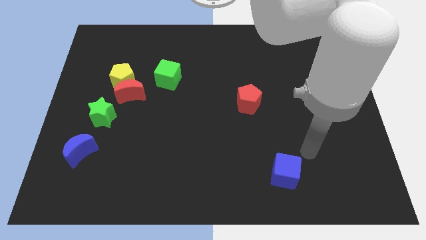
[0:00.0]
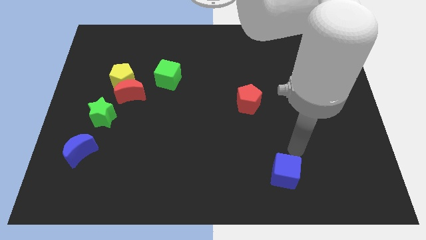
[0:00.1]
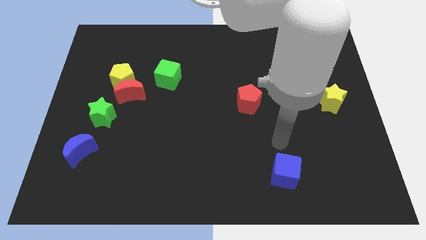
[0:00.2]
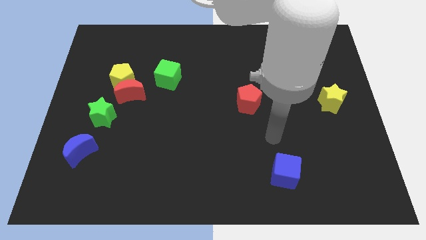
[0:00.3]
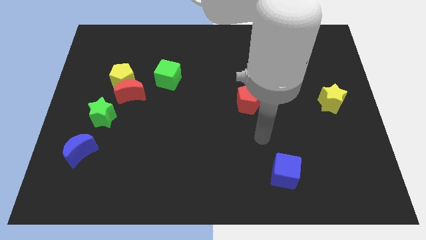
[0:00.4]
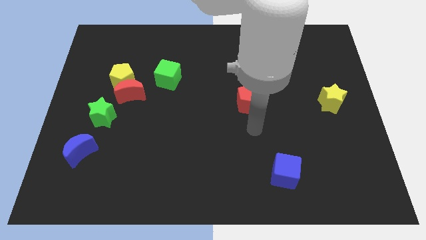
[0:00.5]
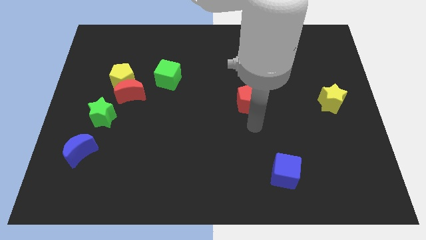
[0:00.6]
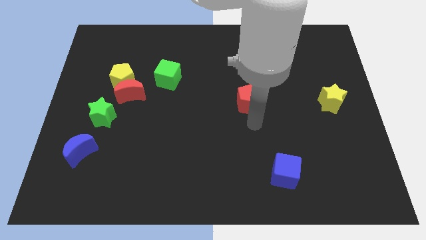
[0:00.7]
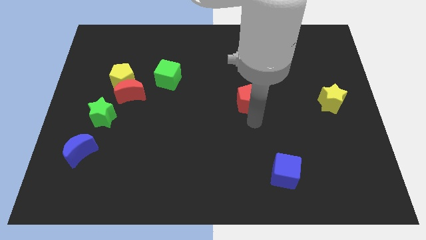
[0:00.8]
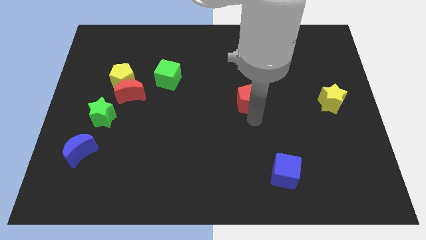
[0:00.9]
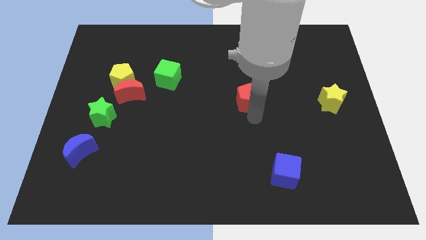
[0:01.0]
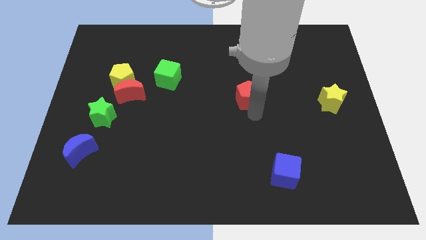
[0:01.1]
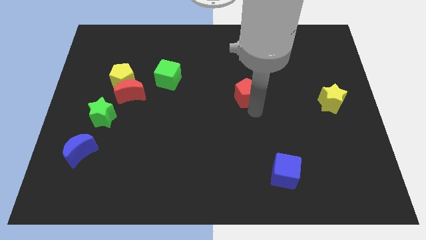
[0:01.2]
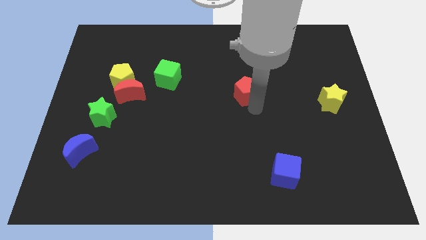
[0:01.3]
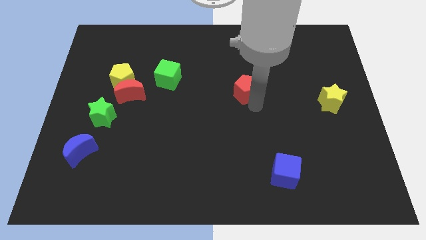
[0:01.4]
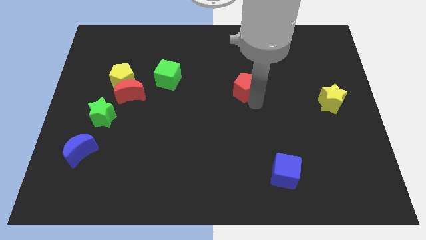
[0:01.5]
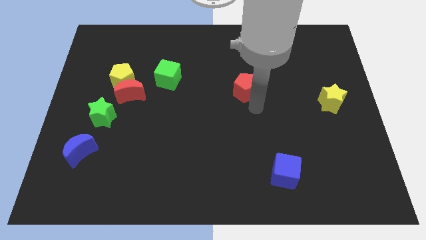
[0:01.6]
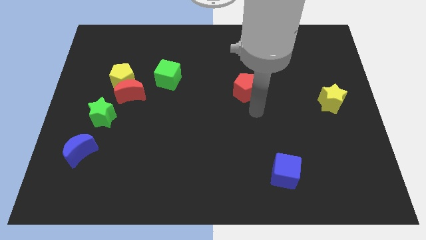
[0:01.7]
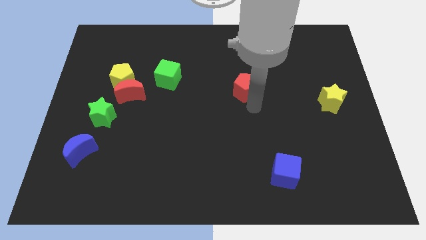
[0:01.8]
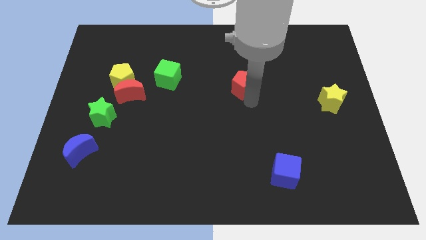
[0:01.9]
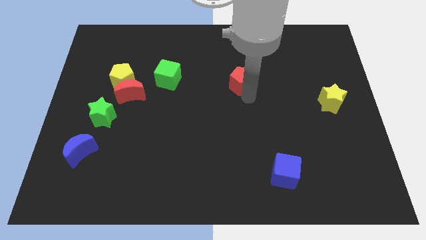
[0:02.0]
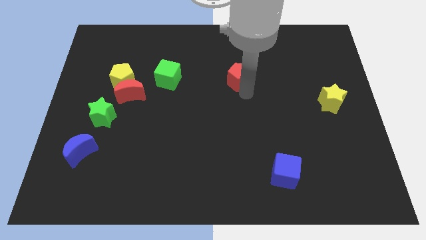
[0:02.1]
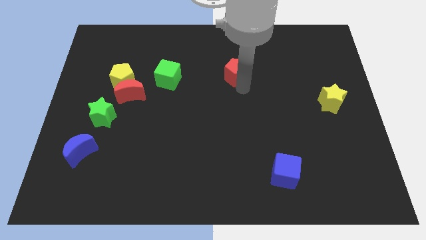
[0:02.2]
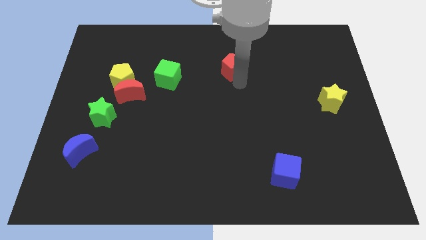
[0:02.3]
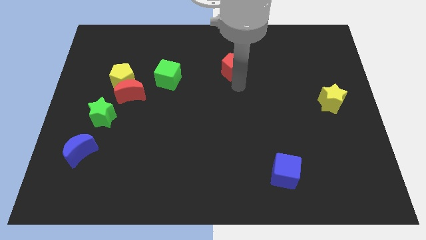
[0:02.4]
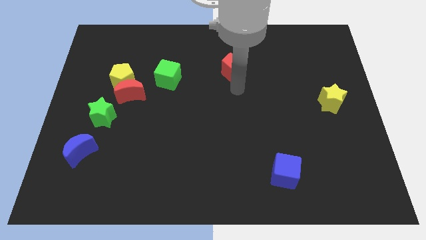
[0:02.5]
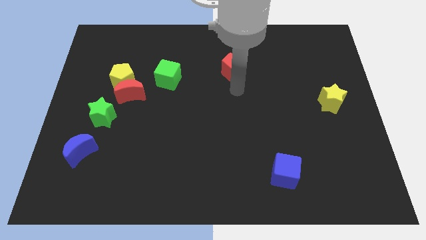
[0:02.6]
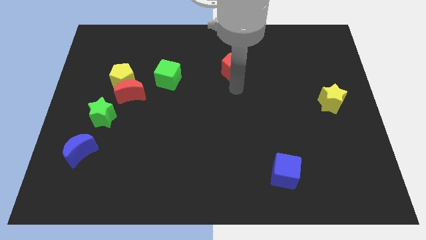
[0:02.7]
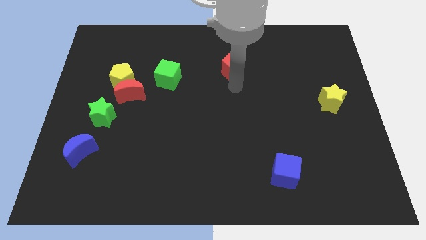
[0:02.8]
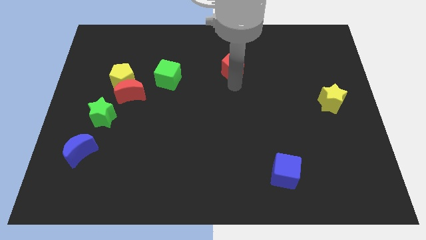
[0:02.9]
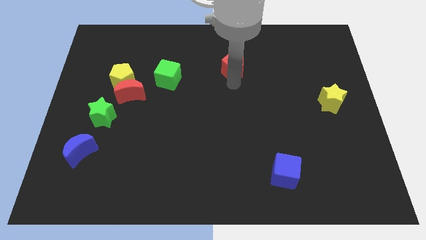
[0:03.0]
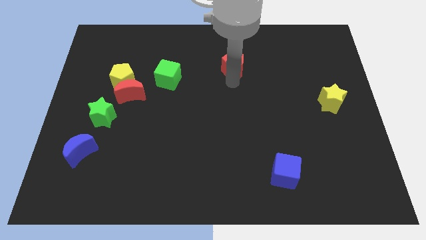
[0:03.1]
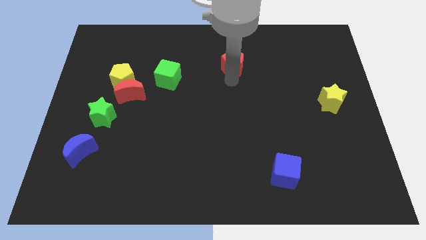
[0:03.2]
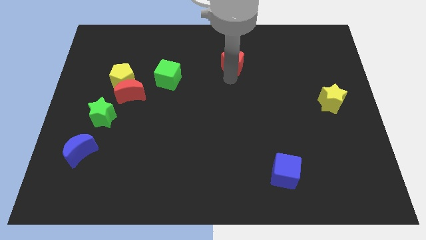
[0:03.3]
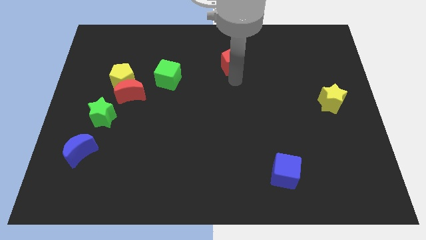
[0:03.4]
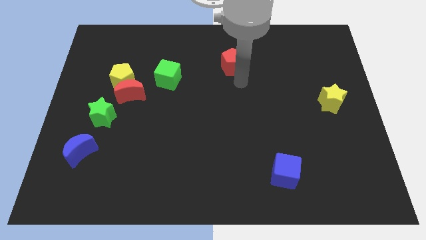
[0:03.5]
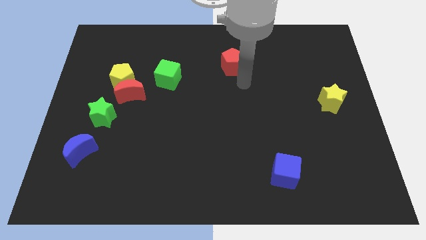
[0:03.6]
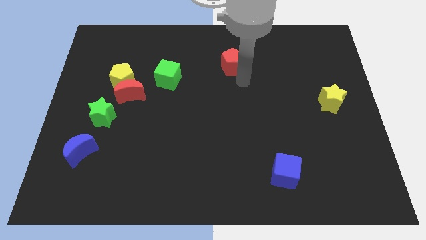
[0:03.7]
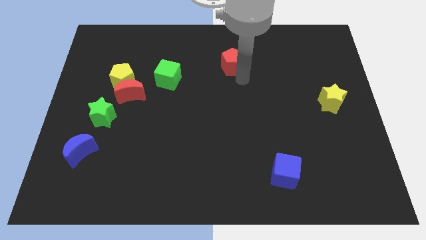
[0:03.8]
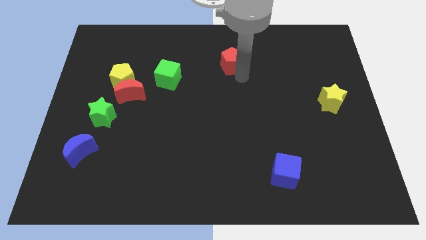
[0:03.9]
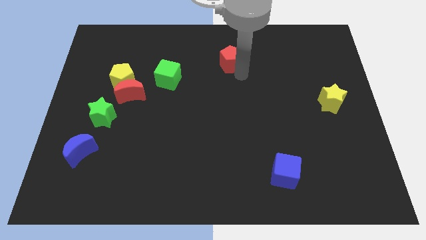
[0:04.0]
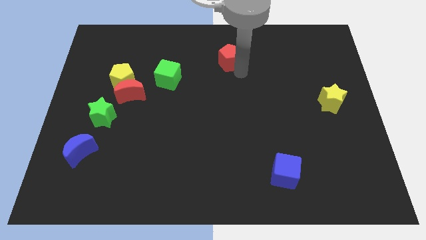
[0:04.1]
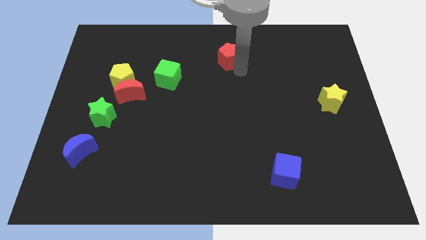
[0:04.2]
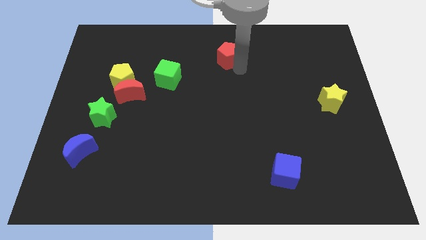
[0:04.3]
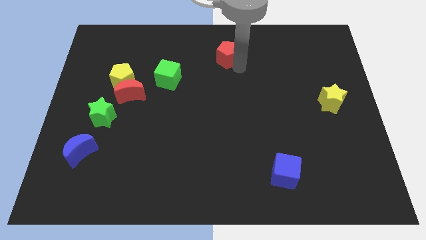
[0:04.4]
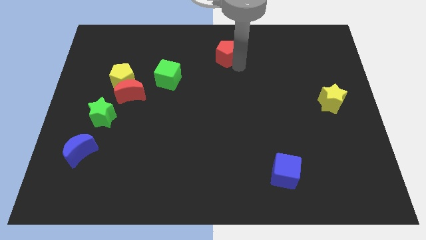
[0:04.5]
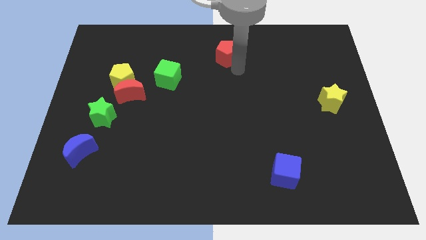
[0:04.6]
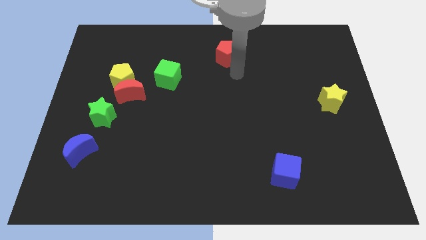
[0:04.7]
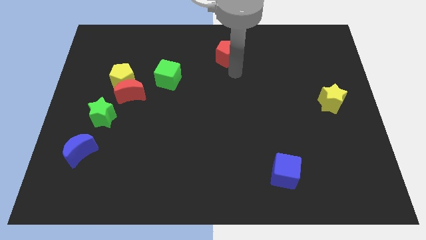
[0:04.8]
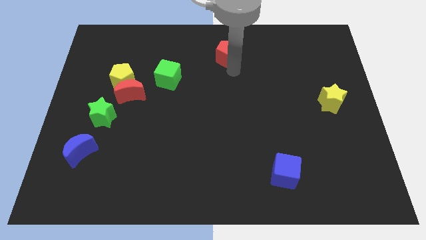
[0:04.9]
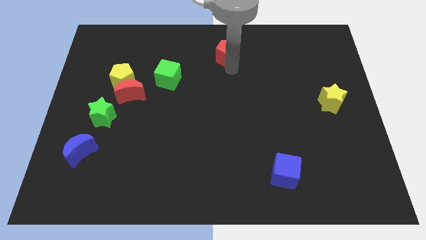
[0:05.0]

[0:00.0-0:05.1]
slide the red pentagon to the towards your base

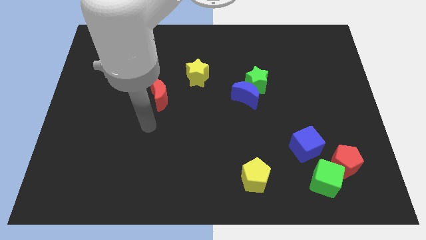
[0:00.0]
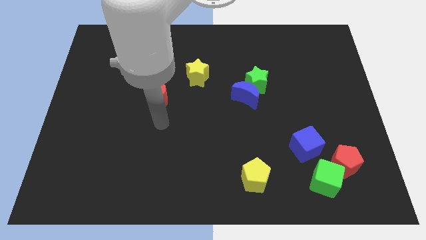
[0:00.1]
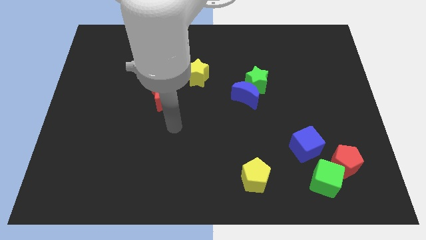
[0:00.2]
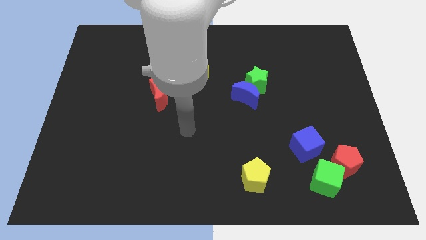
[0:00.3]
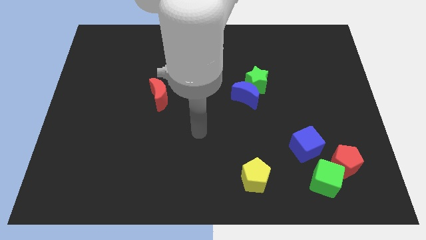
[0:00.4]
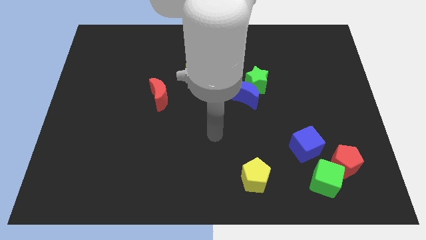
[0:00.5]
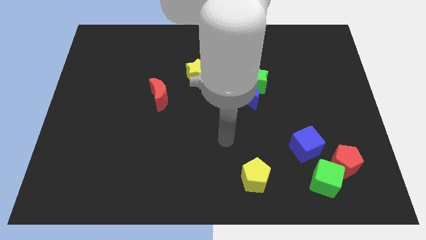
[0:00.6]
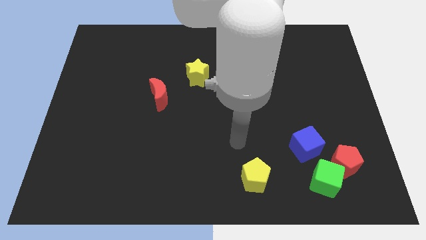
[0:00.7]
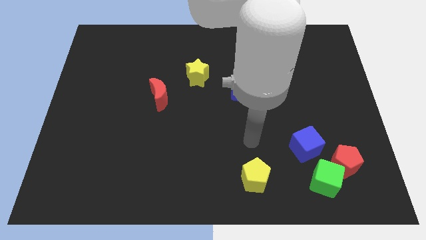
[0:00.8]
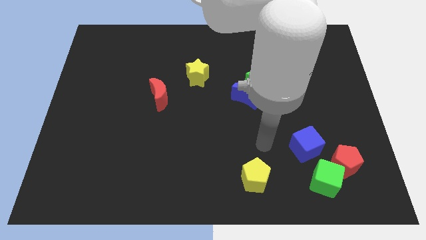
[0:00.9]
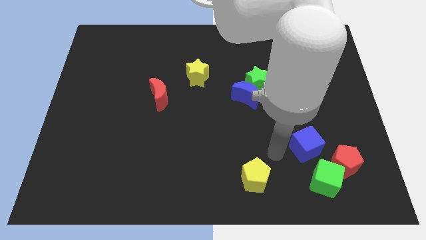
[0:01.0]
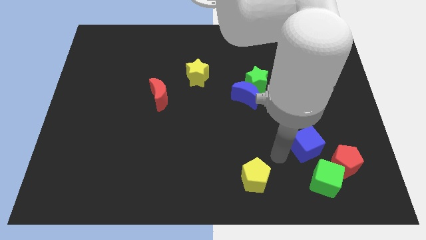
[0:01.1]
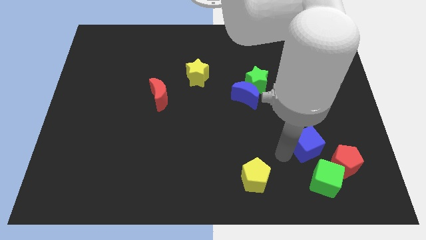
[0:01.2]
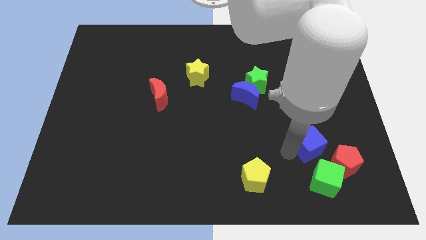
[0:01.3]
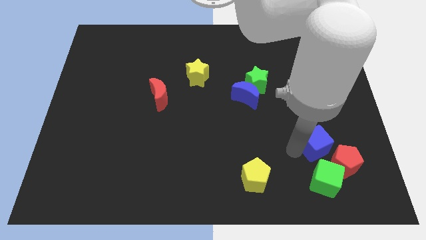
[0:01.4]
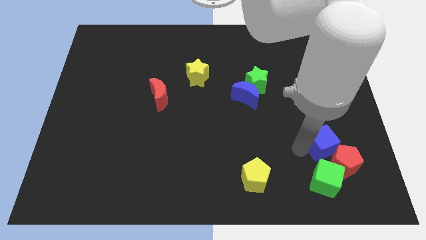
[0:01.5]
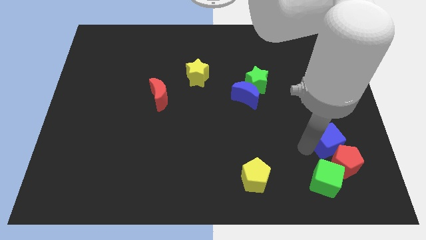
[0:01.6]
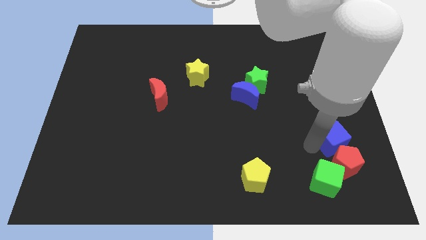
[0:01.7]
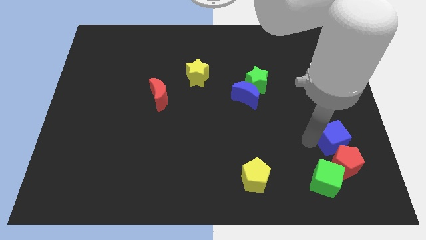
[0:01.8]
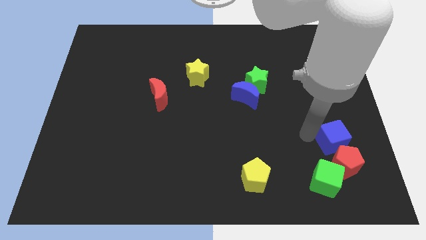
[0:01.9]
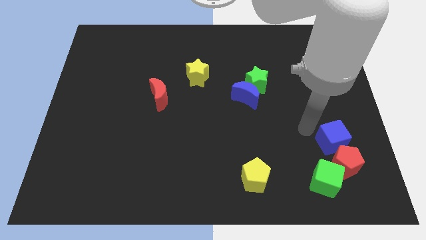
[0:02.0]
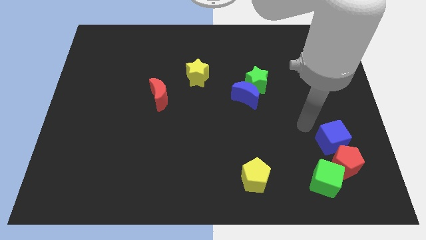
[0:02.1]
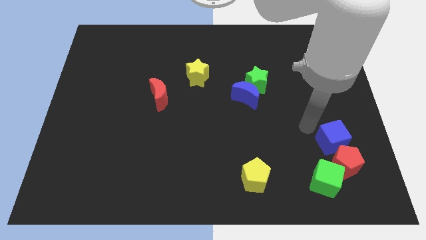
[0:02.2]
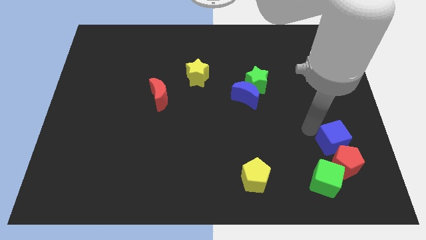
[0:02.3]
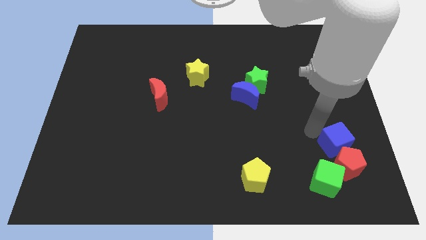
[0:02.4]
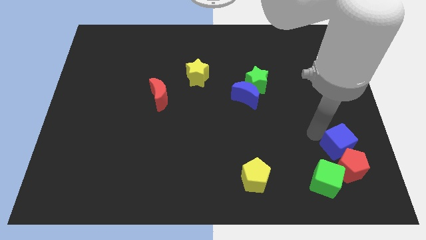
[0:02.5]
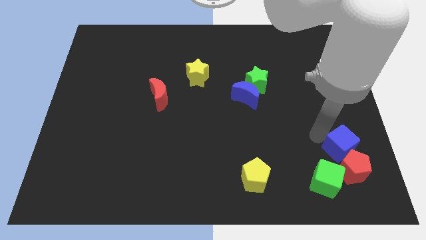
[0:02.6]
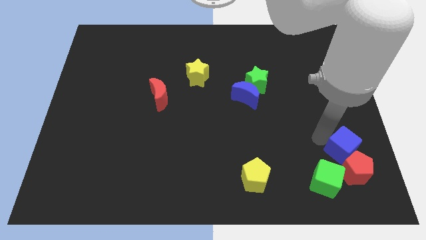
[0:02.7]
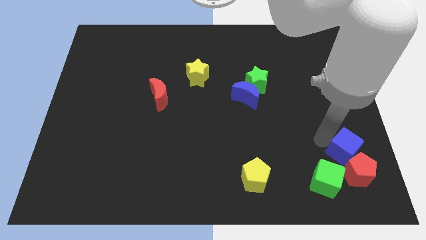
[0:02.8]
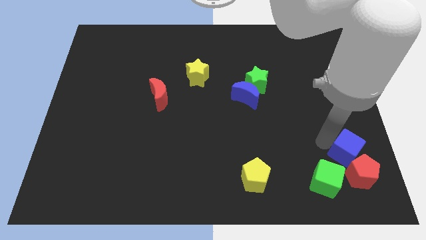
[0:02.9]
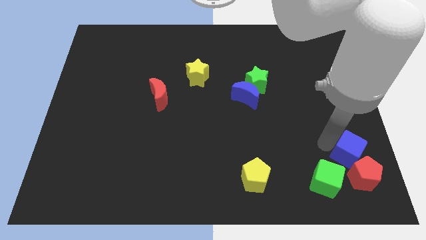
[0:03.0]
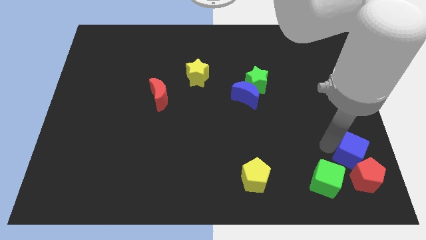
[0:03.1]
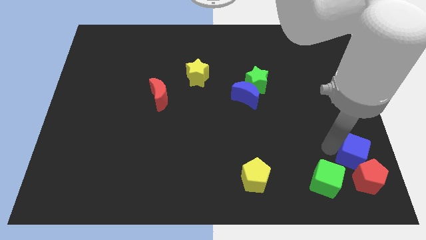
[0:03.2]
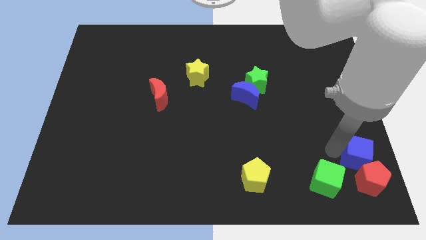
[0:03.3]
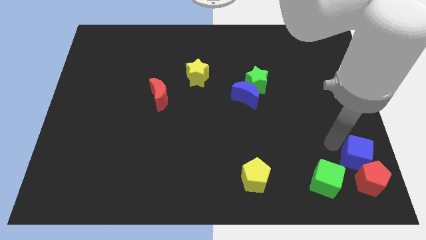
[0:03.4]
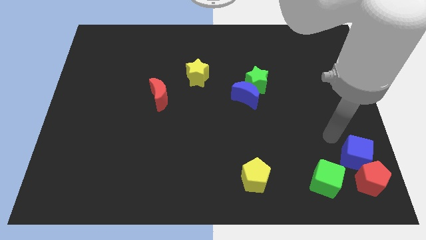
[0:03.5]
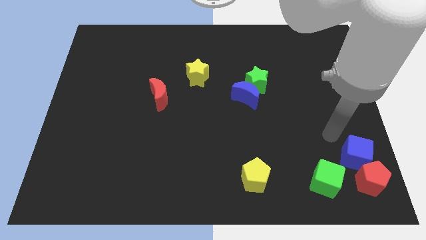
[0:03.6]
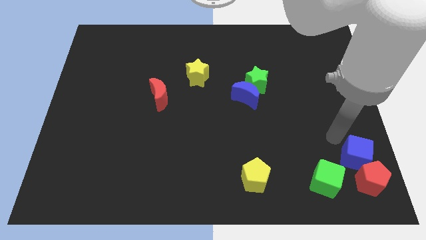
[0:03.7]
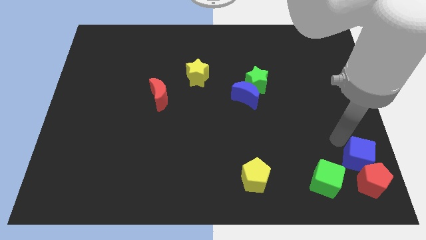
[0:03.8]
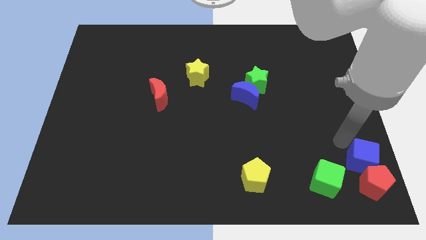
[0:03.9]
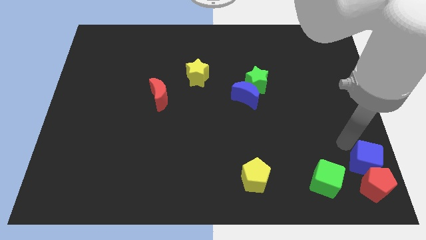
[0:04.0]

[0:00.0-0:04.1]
move the blue cube to the lower right corner
